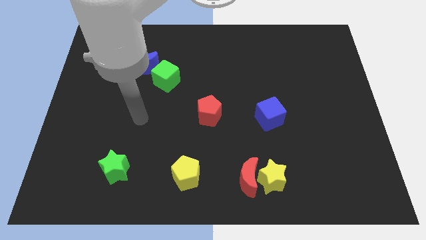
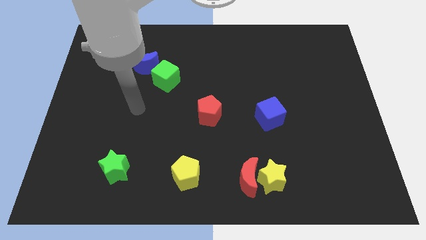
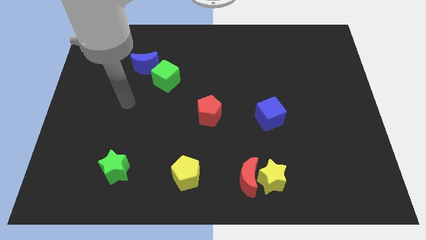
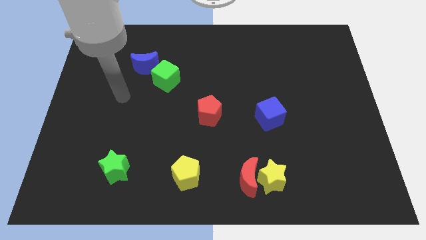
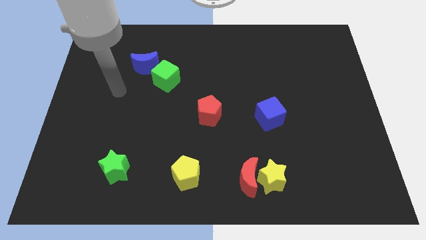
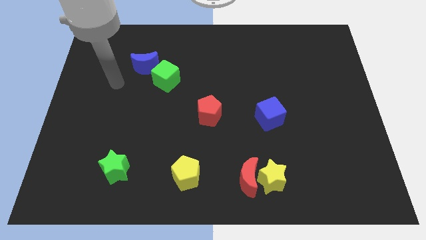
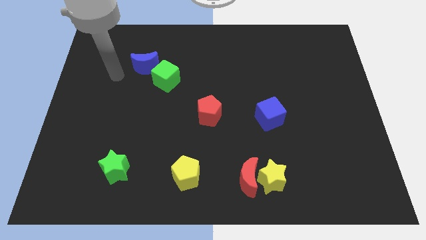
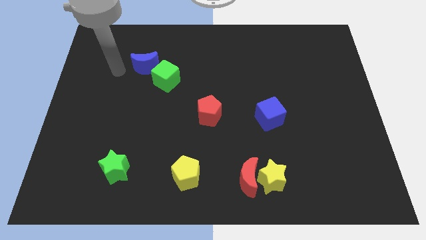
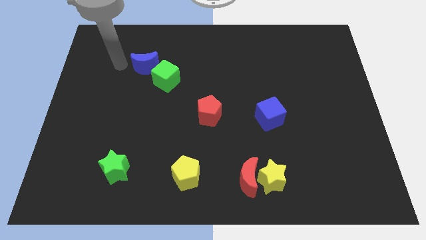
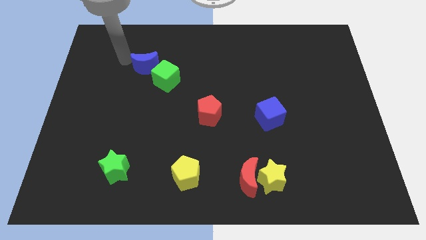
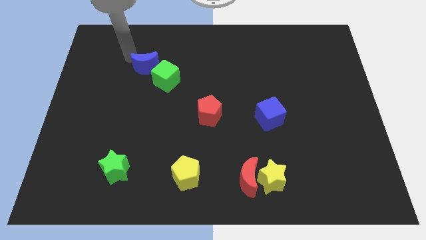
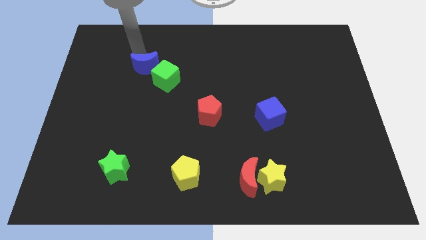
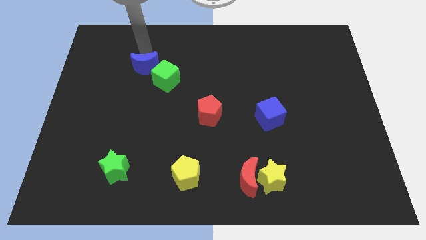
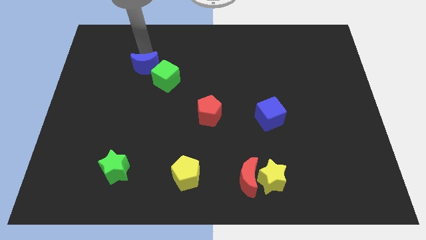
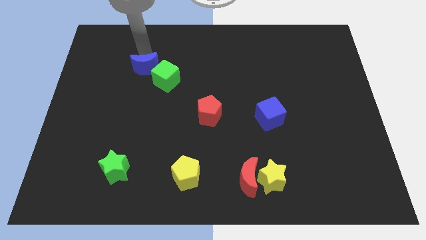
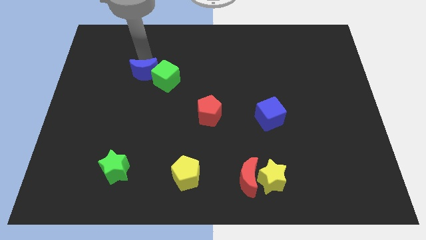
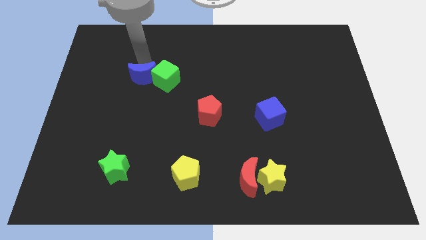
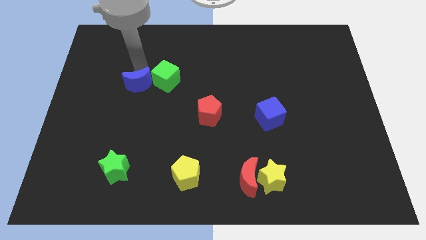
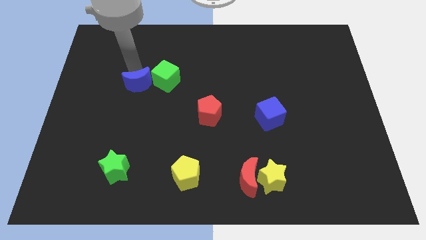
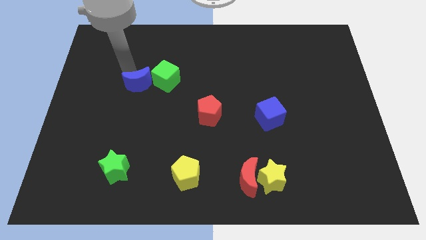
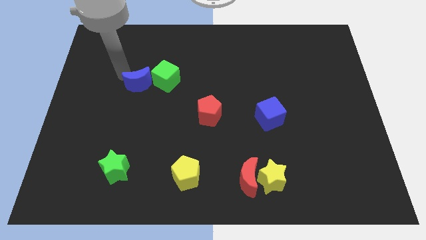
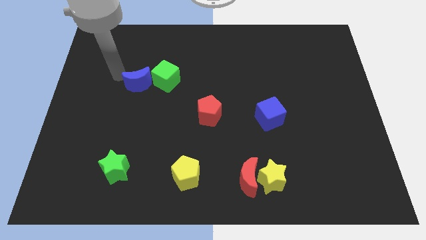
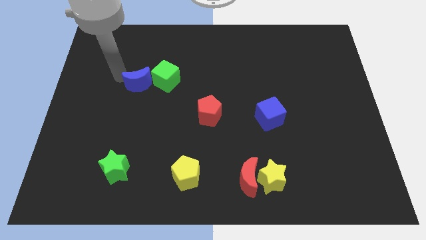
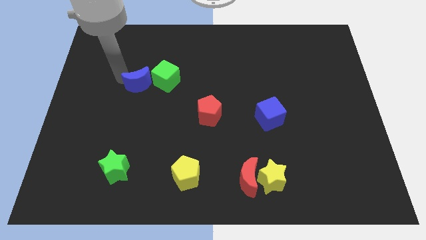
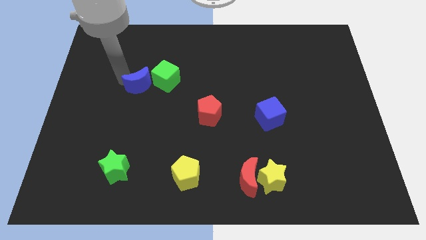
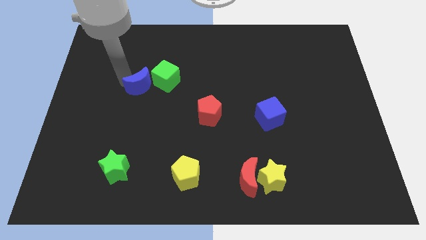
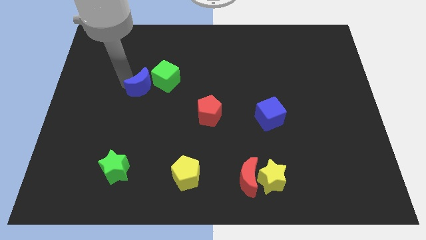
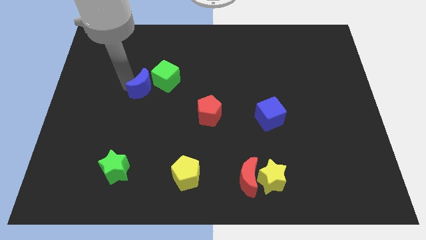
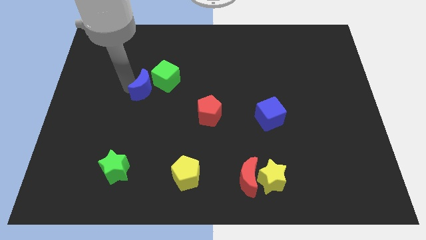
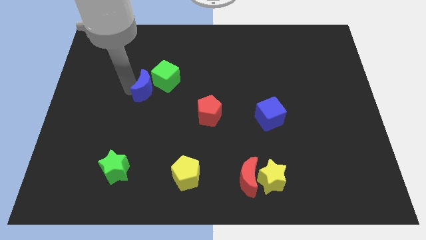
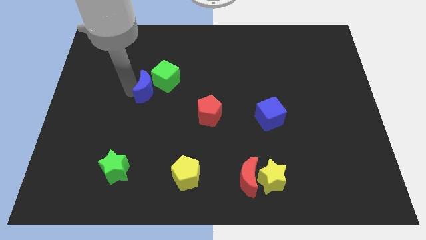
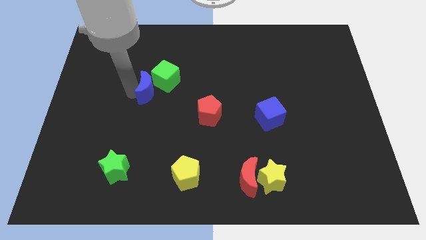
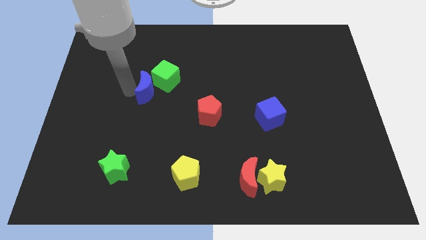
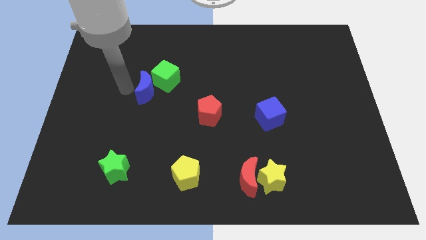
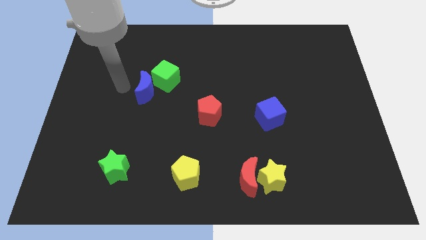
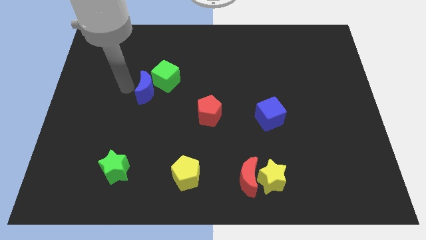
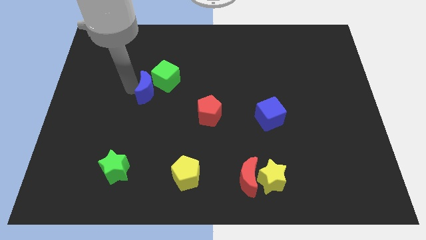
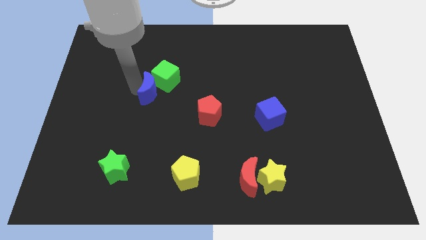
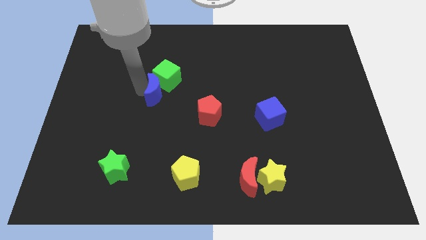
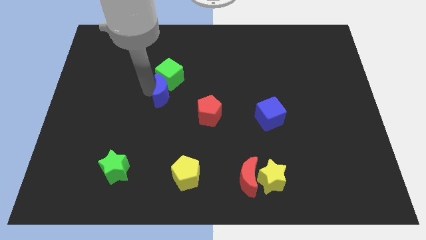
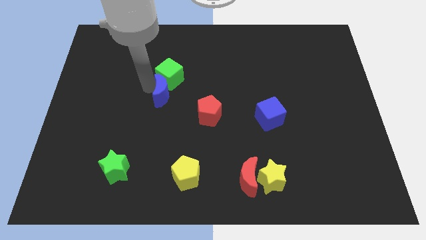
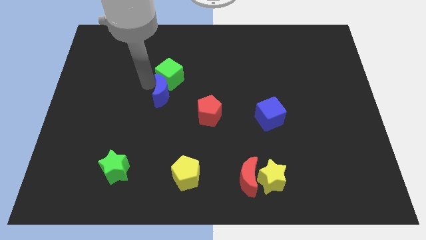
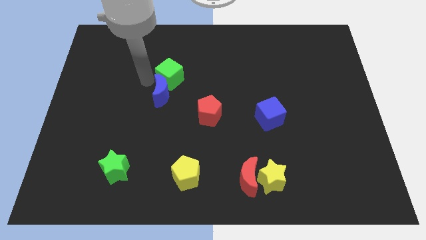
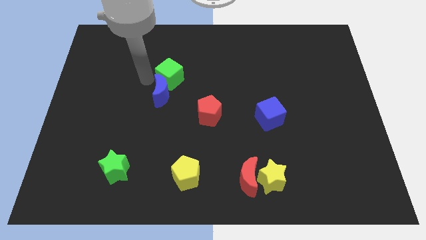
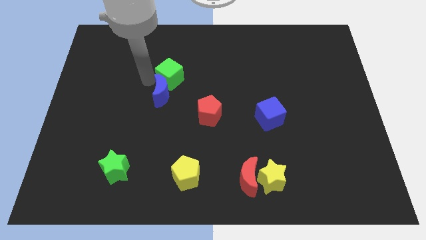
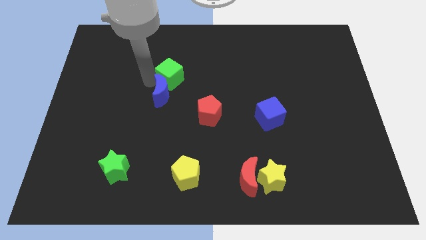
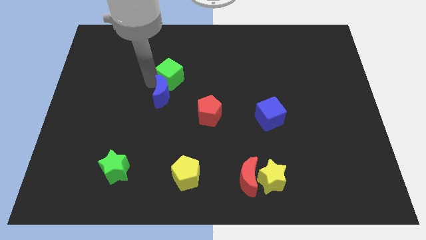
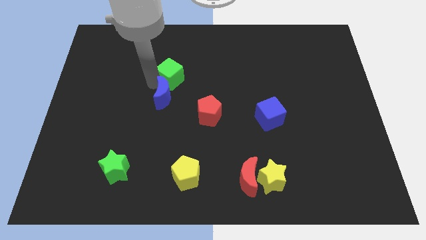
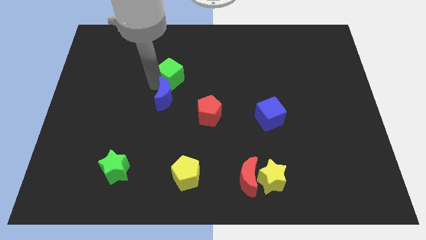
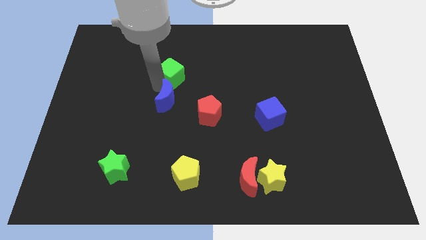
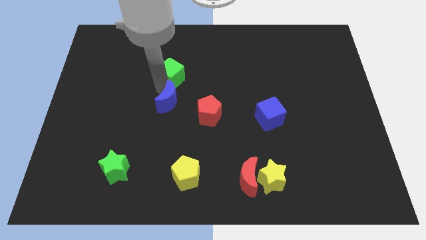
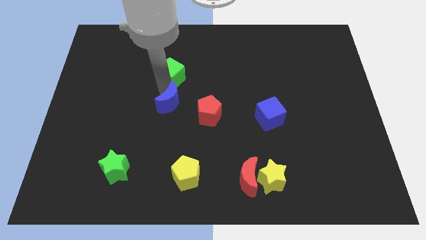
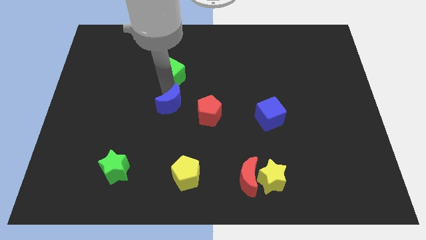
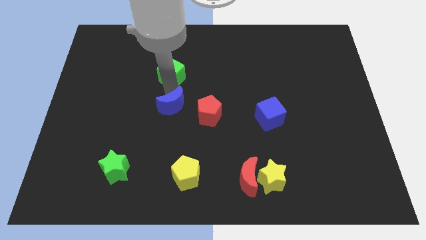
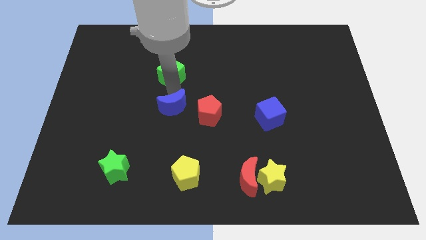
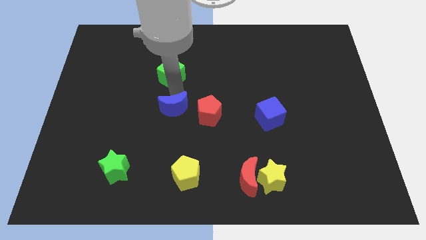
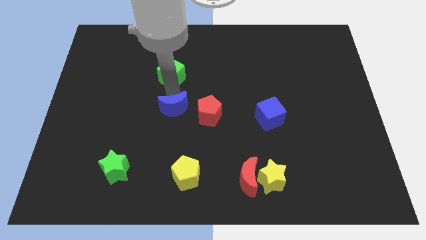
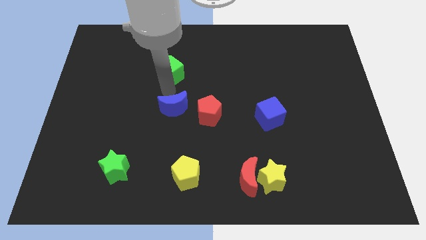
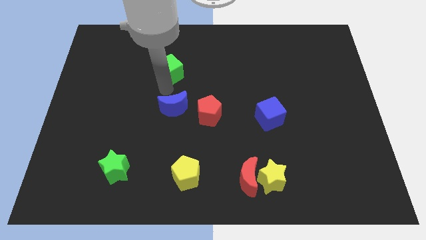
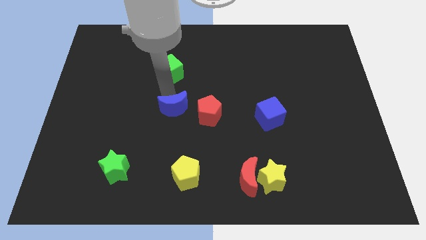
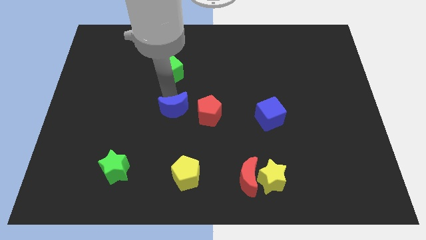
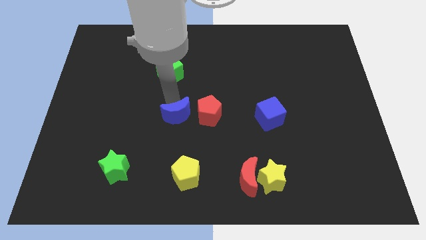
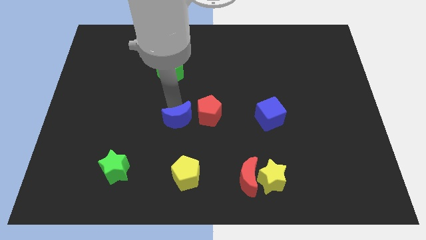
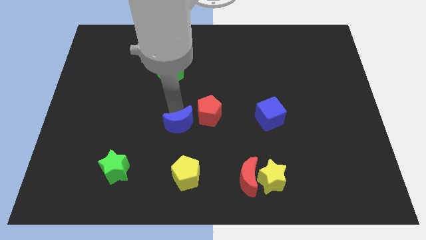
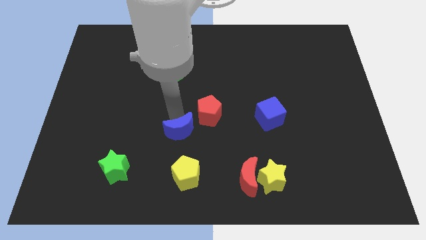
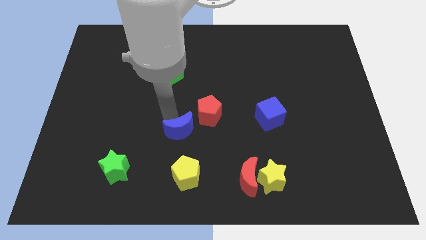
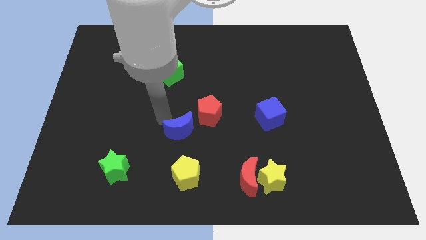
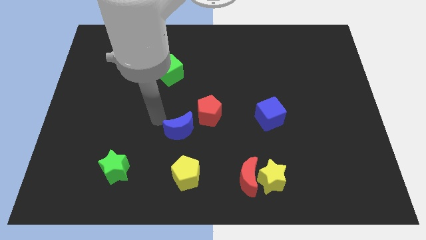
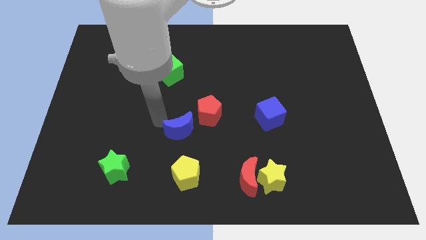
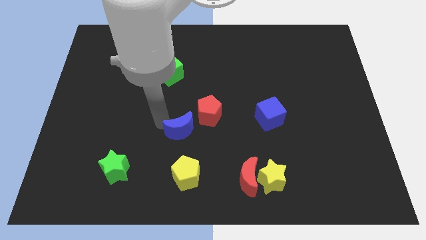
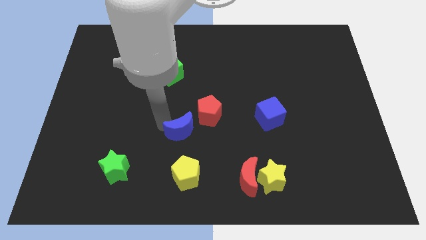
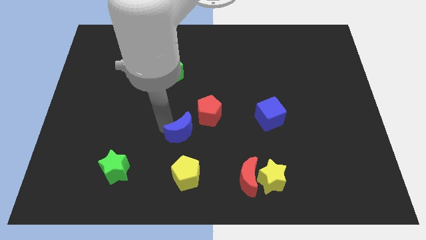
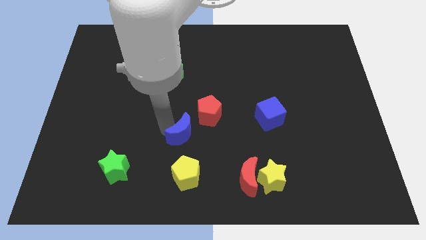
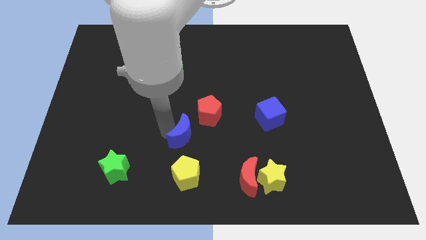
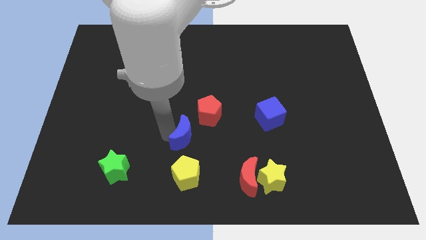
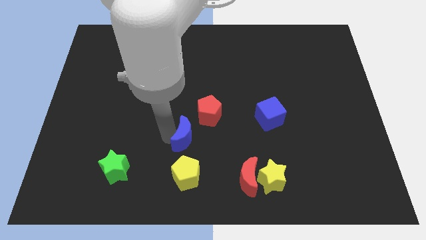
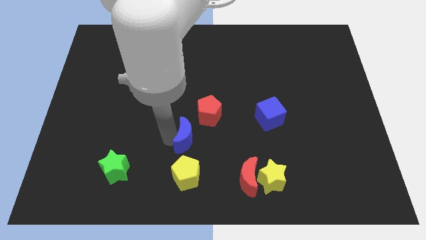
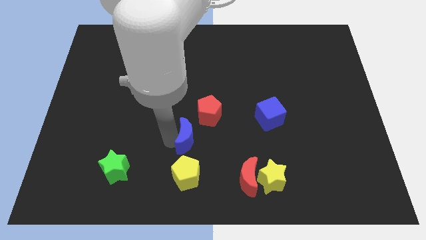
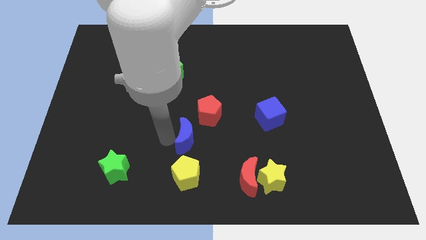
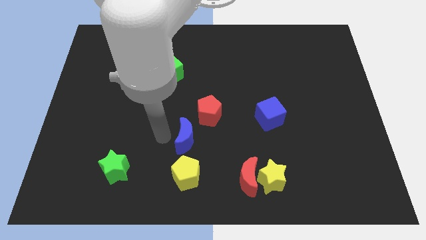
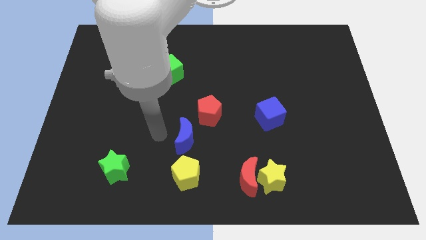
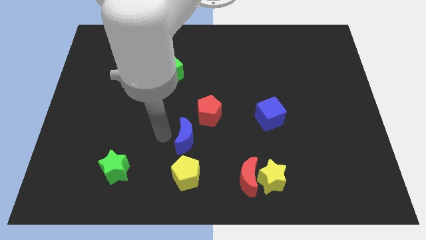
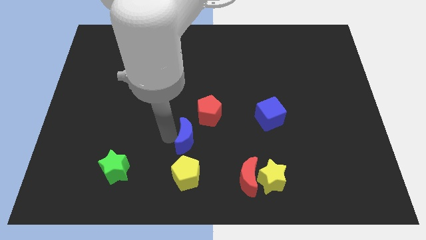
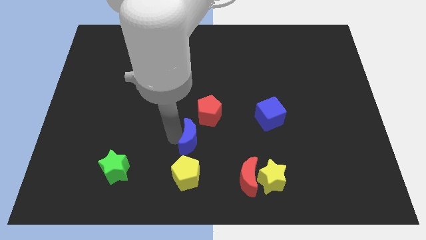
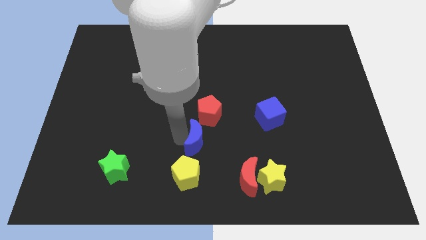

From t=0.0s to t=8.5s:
put the blue moon to the top right side of the yellow pentagon
